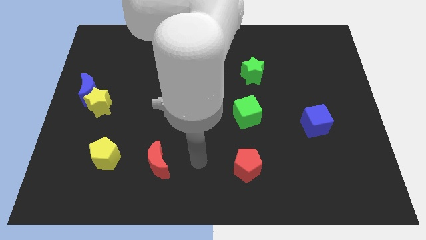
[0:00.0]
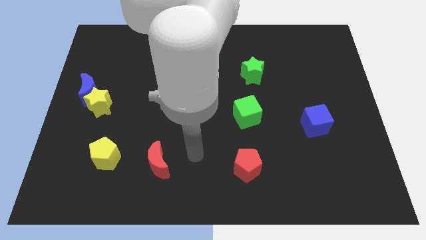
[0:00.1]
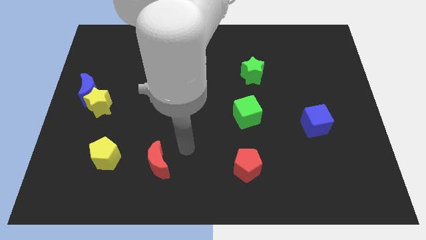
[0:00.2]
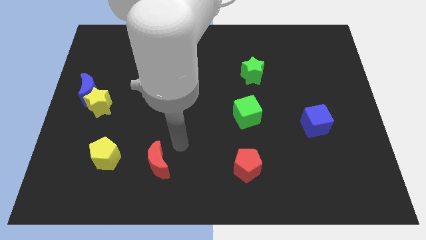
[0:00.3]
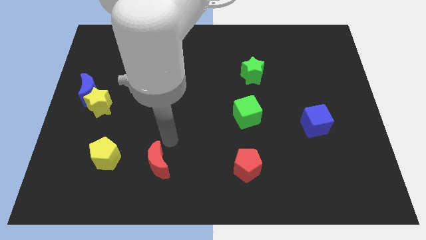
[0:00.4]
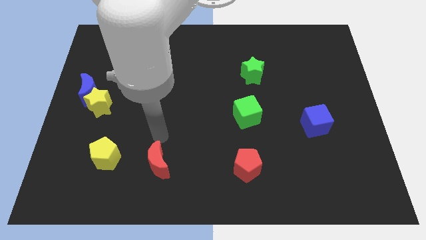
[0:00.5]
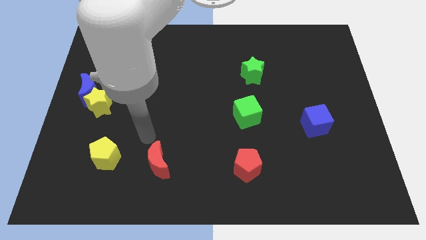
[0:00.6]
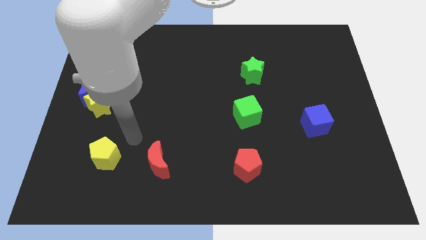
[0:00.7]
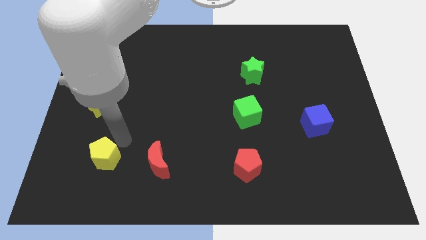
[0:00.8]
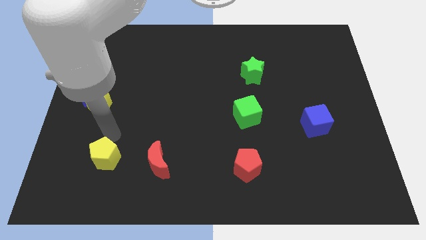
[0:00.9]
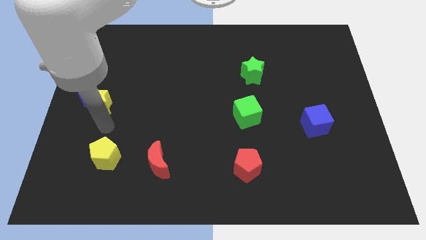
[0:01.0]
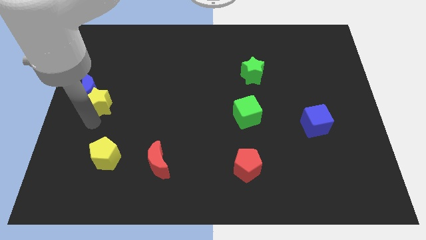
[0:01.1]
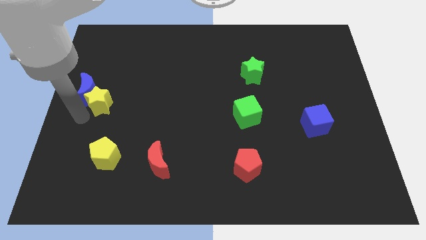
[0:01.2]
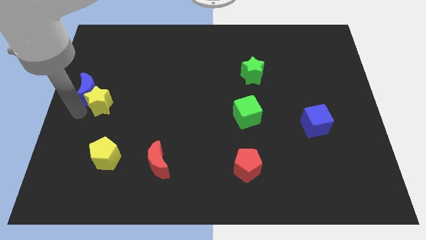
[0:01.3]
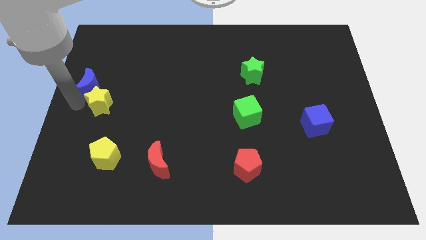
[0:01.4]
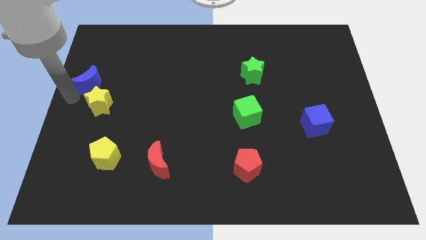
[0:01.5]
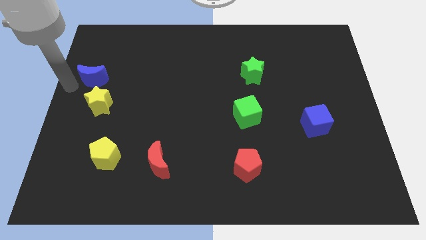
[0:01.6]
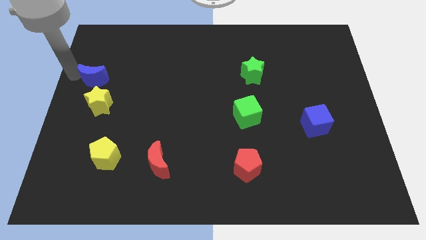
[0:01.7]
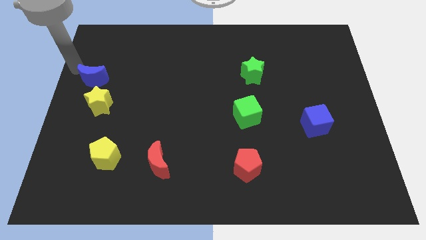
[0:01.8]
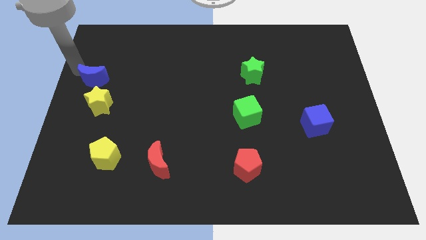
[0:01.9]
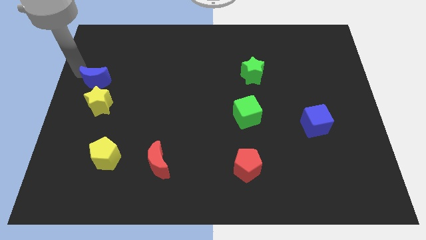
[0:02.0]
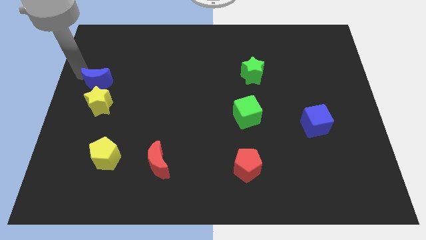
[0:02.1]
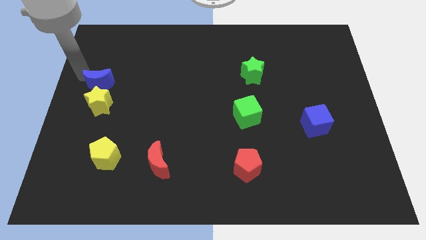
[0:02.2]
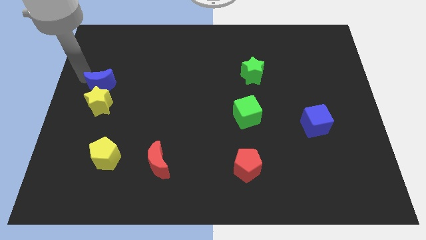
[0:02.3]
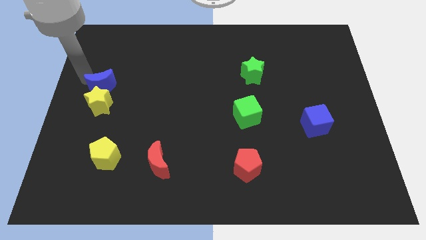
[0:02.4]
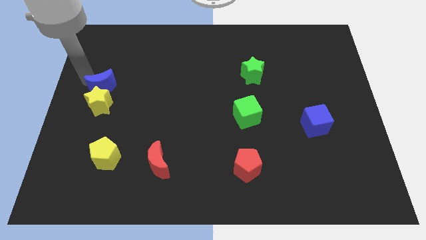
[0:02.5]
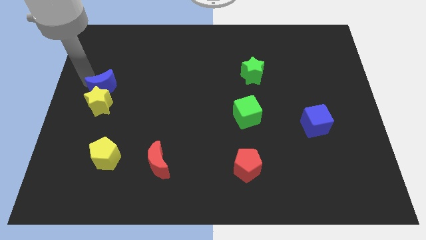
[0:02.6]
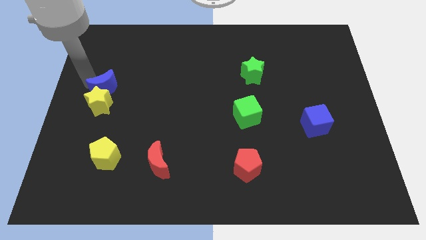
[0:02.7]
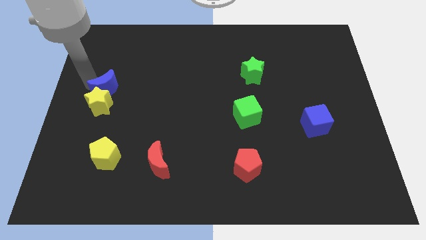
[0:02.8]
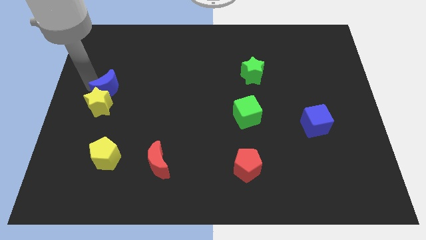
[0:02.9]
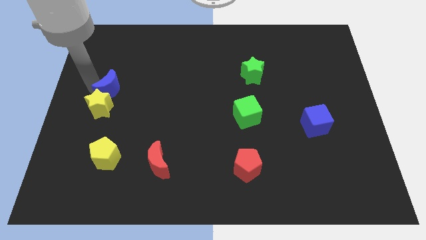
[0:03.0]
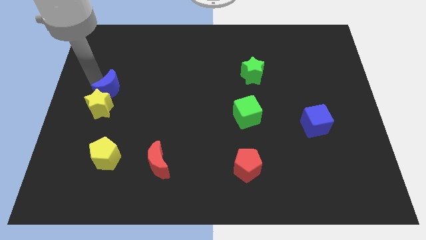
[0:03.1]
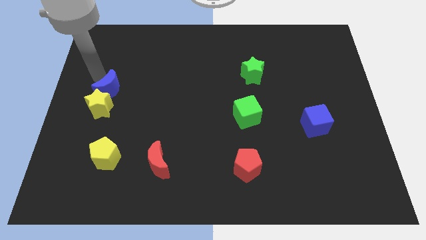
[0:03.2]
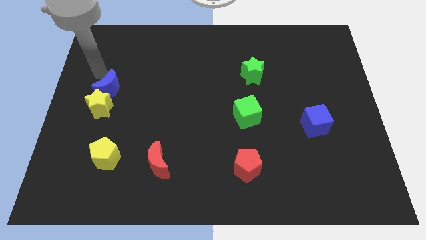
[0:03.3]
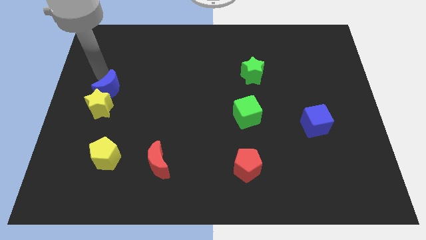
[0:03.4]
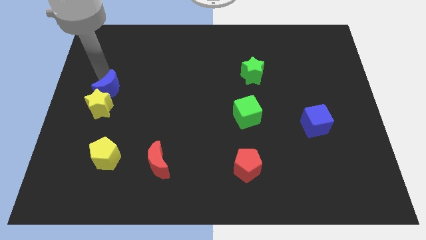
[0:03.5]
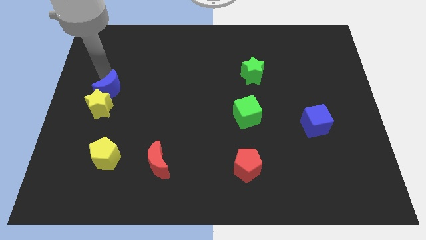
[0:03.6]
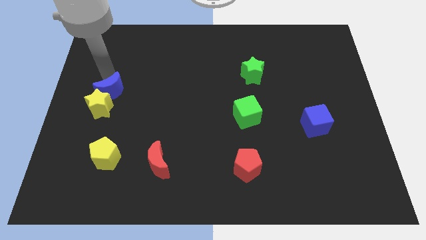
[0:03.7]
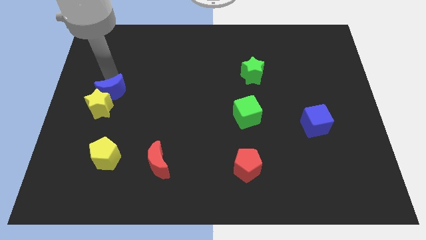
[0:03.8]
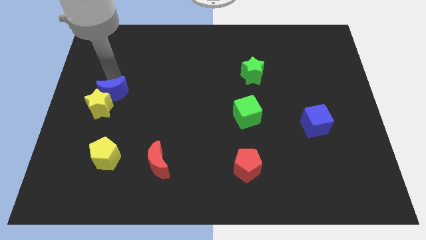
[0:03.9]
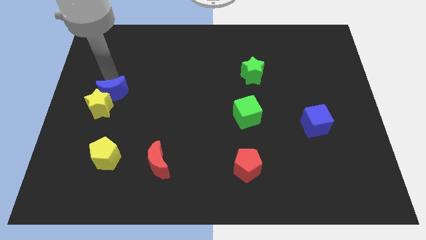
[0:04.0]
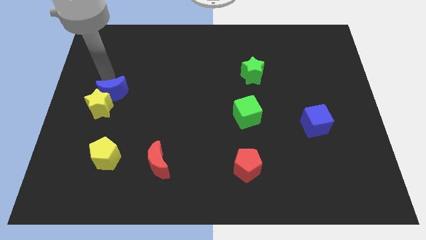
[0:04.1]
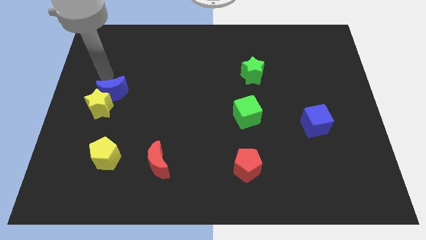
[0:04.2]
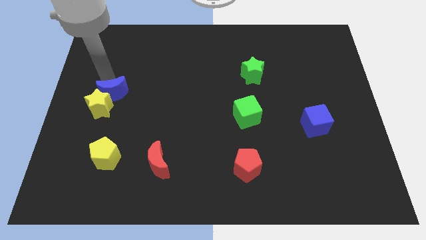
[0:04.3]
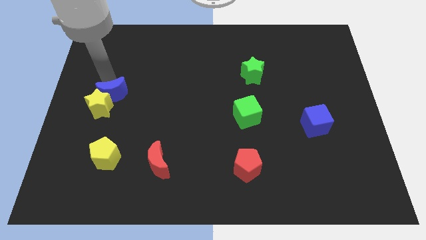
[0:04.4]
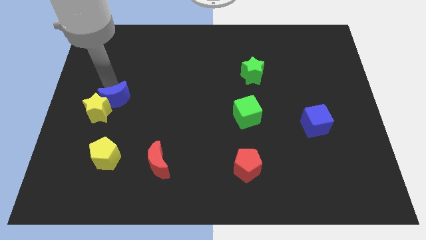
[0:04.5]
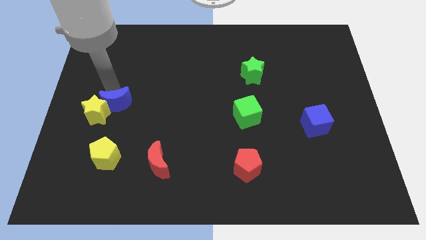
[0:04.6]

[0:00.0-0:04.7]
move the blue moon diagonally down and right a bit

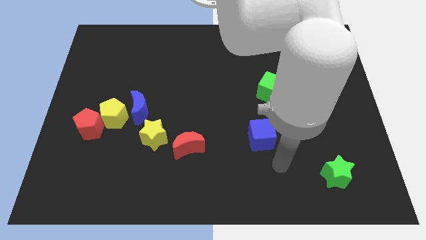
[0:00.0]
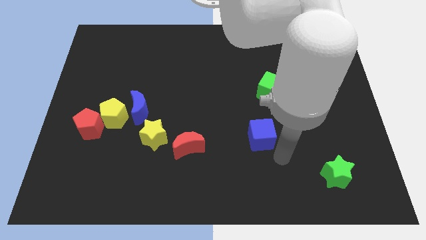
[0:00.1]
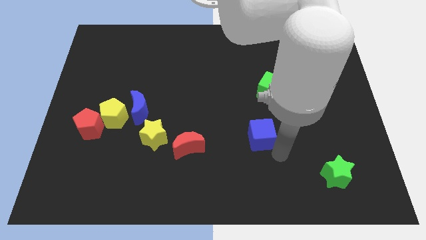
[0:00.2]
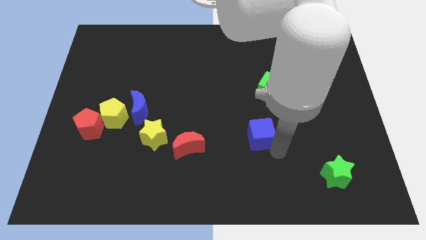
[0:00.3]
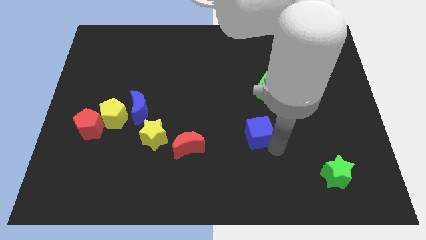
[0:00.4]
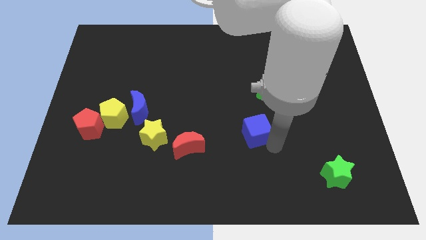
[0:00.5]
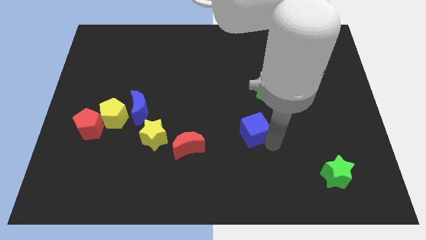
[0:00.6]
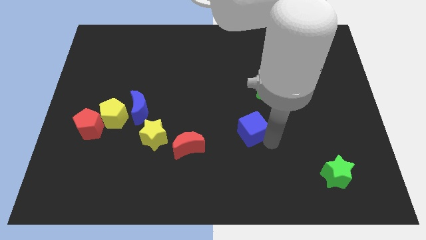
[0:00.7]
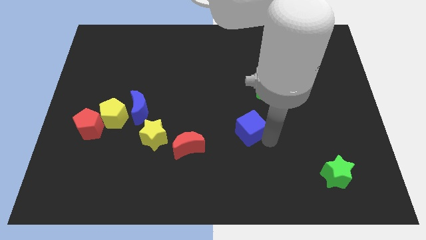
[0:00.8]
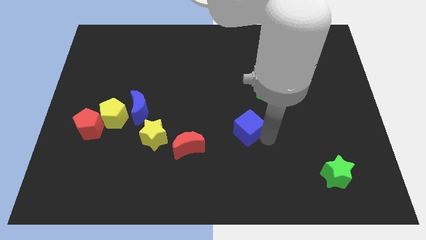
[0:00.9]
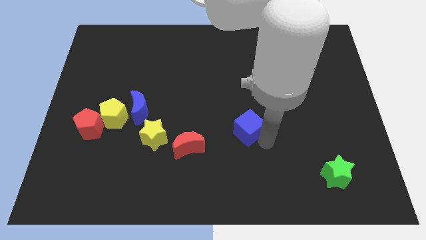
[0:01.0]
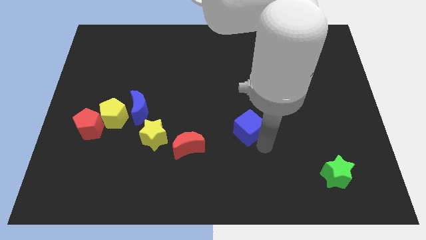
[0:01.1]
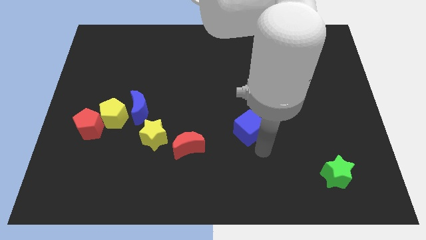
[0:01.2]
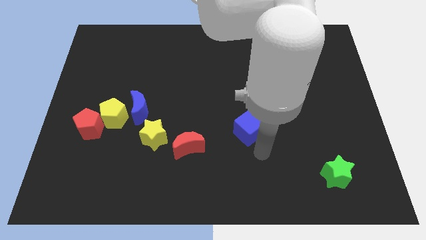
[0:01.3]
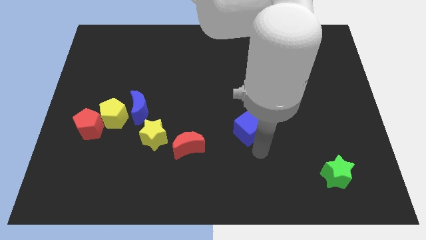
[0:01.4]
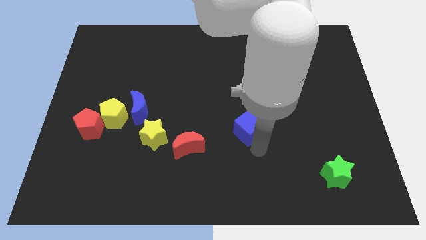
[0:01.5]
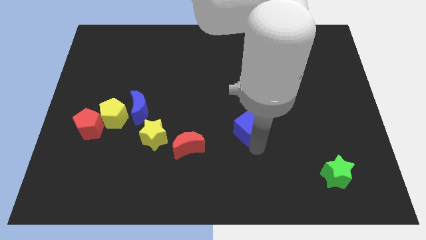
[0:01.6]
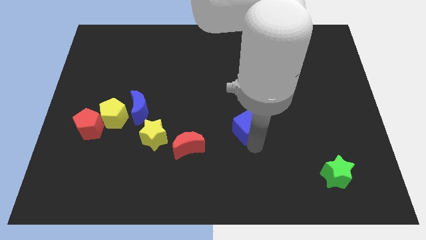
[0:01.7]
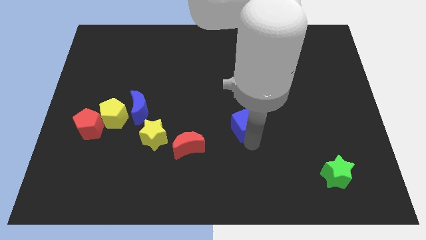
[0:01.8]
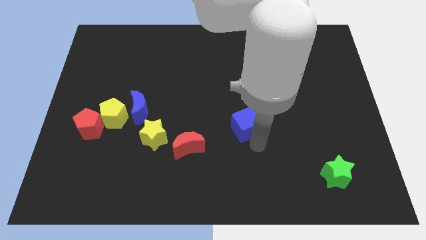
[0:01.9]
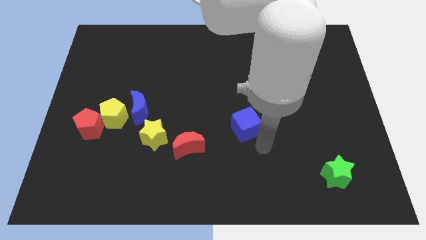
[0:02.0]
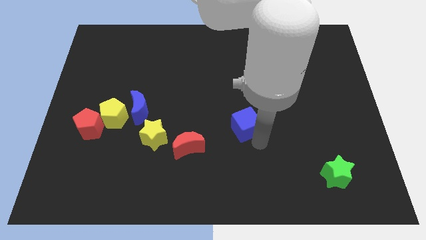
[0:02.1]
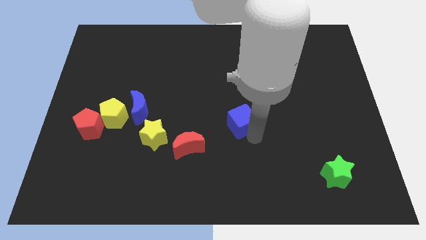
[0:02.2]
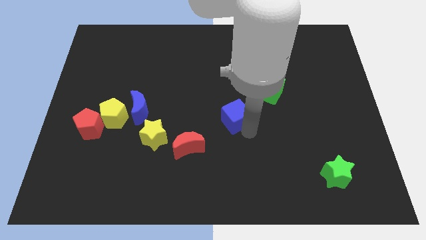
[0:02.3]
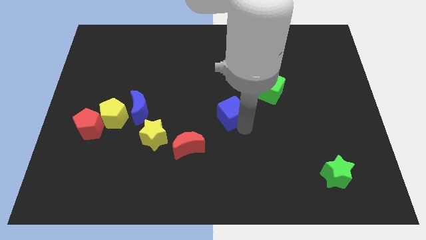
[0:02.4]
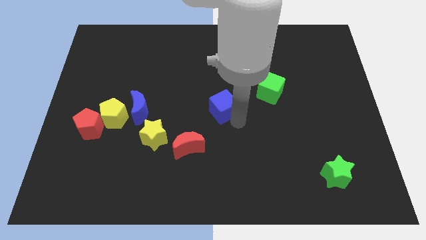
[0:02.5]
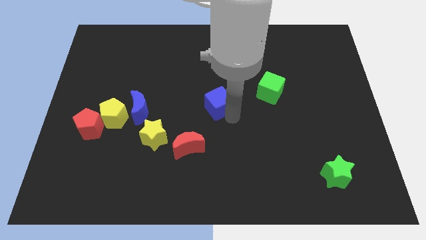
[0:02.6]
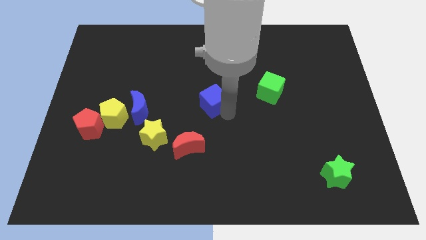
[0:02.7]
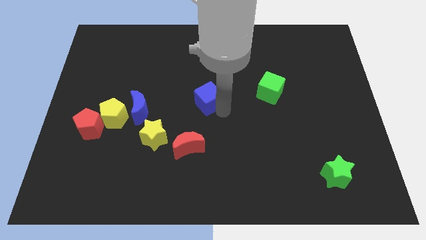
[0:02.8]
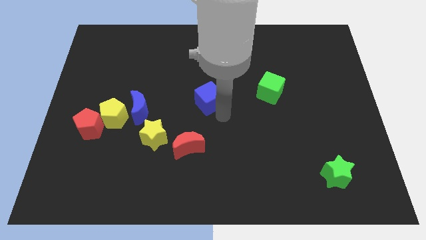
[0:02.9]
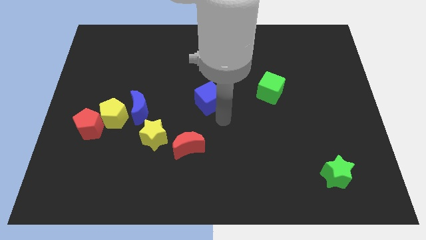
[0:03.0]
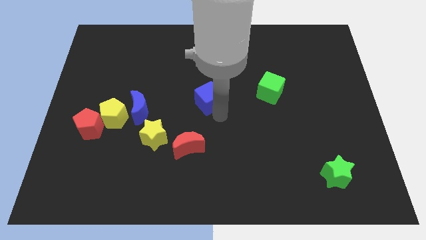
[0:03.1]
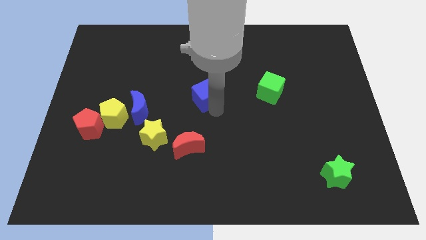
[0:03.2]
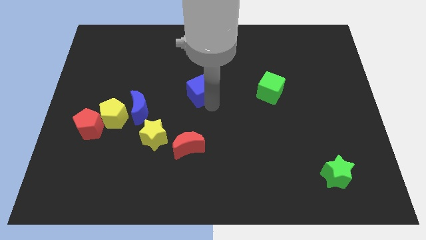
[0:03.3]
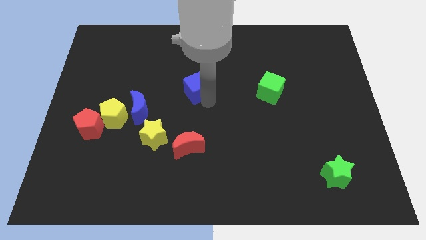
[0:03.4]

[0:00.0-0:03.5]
slide the blue cube upwards and left diagonally
